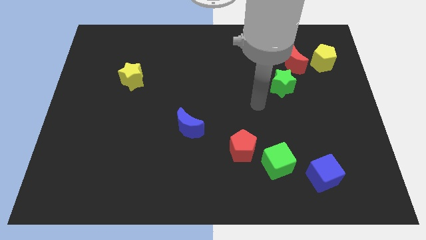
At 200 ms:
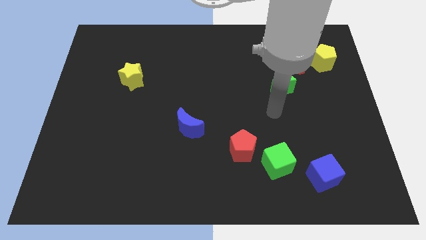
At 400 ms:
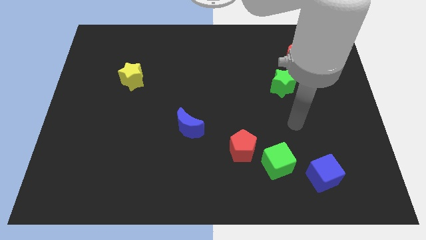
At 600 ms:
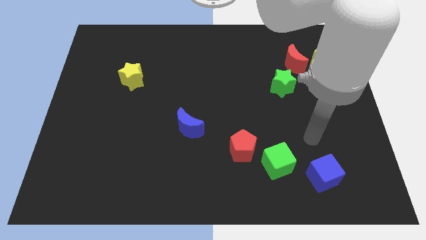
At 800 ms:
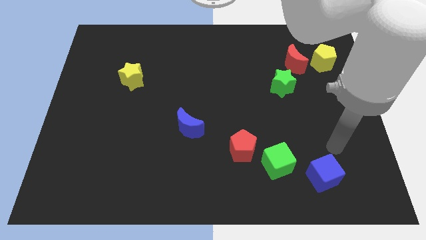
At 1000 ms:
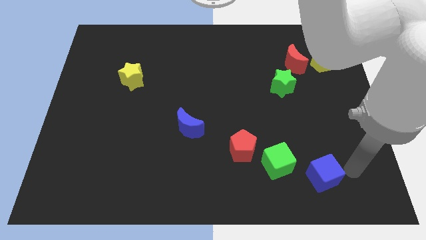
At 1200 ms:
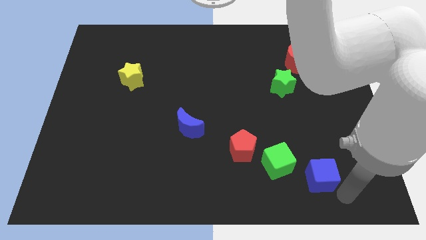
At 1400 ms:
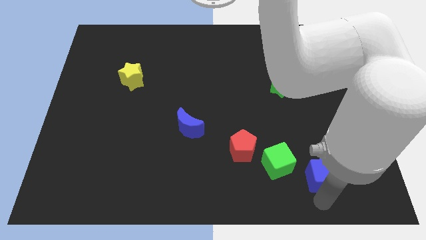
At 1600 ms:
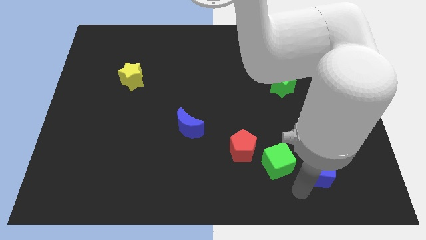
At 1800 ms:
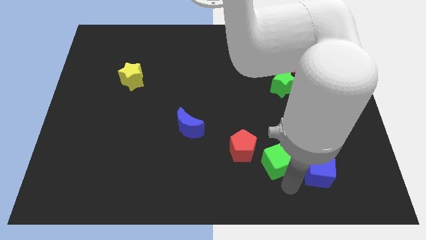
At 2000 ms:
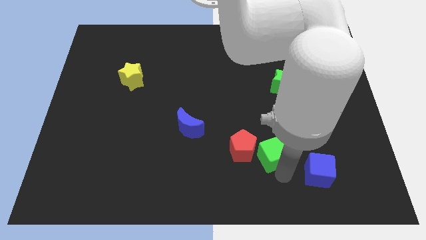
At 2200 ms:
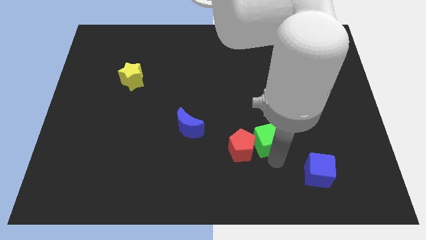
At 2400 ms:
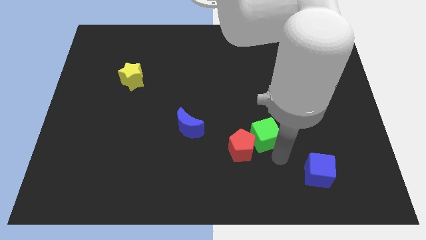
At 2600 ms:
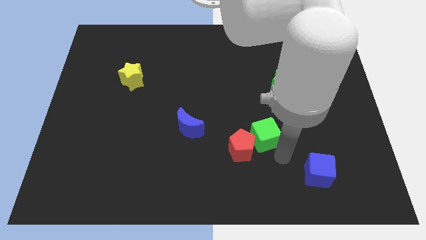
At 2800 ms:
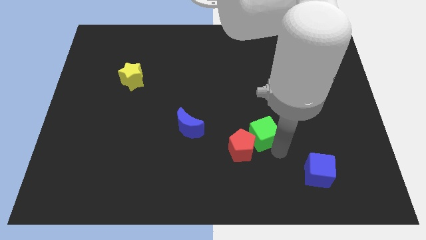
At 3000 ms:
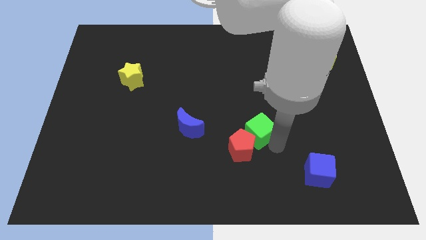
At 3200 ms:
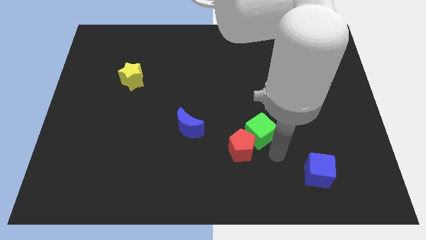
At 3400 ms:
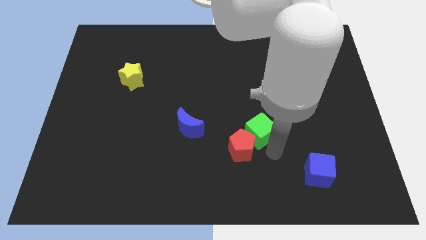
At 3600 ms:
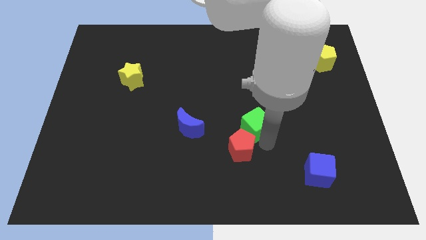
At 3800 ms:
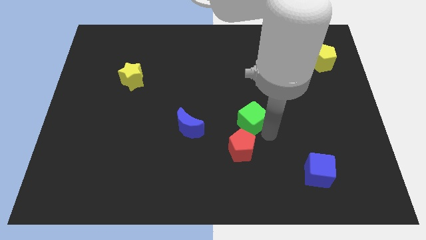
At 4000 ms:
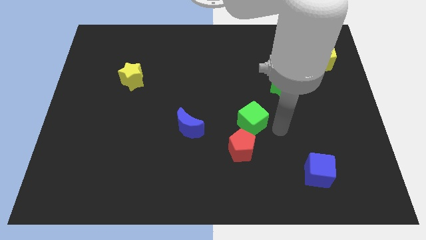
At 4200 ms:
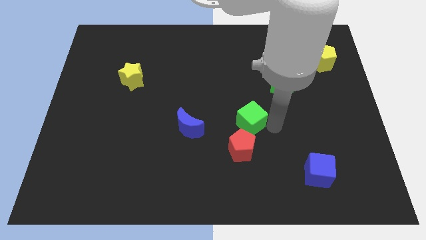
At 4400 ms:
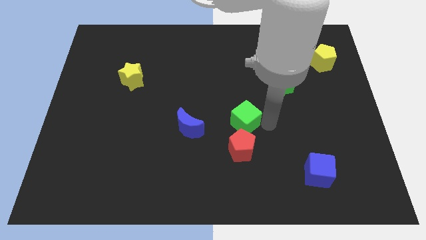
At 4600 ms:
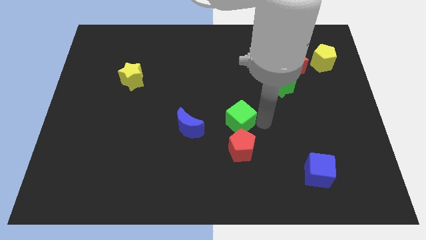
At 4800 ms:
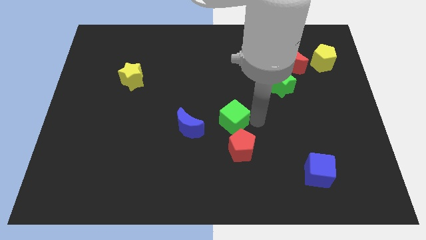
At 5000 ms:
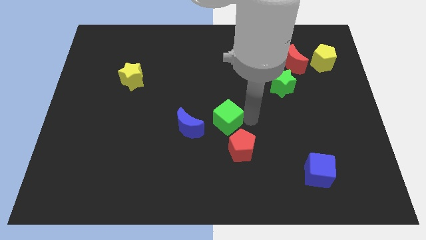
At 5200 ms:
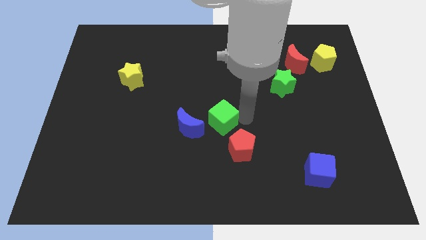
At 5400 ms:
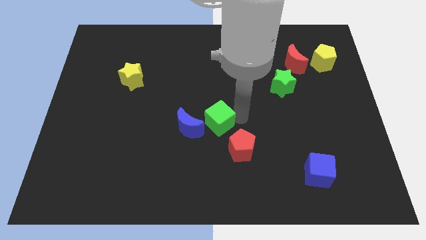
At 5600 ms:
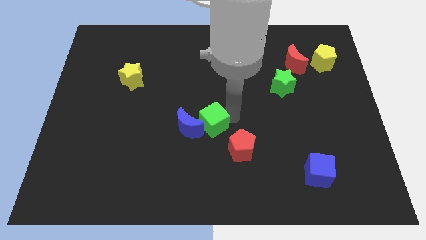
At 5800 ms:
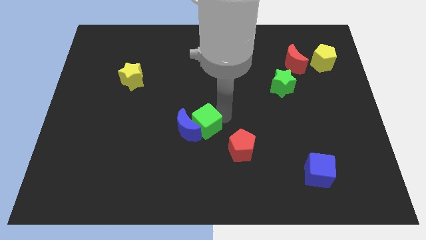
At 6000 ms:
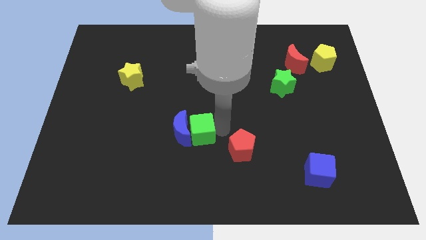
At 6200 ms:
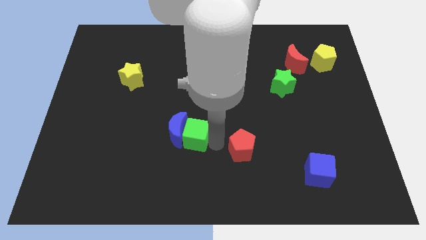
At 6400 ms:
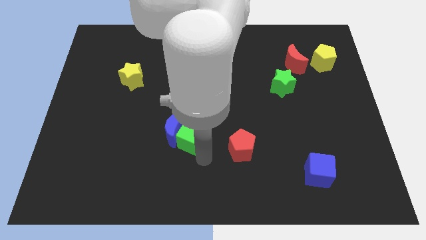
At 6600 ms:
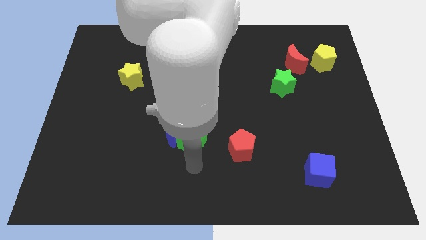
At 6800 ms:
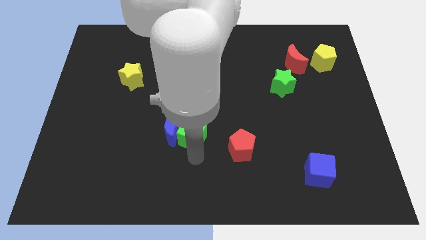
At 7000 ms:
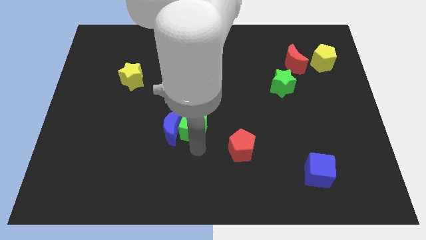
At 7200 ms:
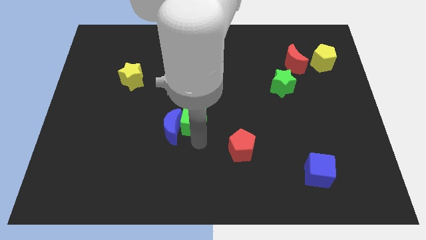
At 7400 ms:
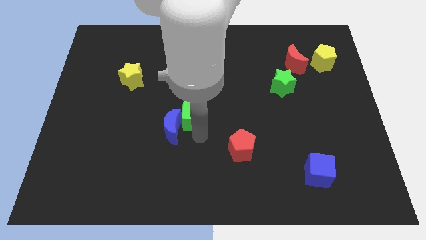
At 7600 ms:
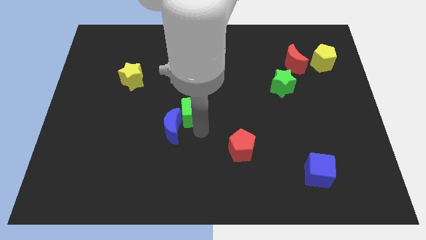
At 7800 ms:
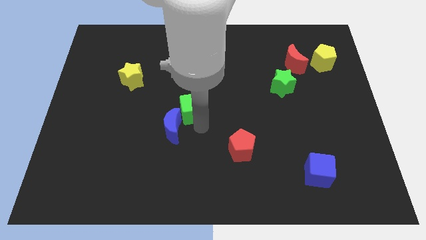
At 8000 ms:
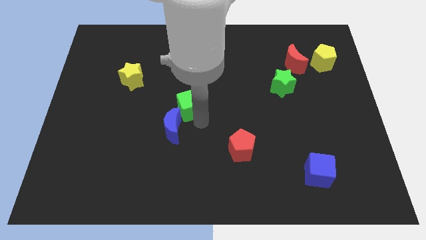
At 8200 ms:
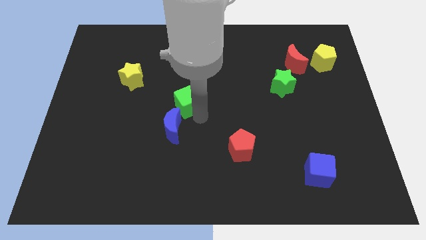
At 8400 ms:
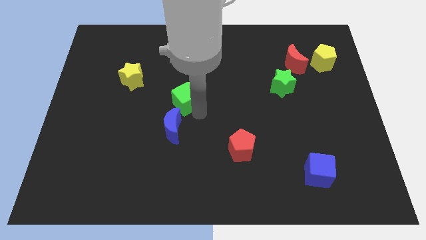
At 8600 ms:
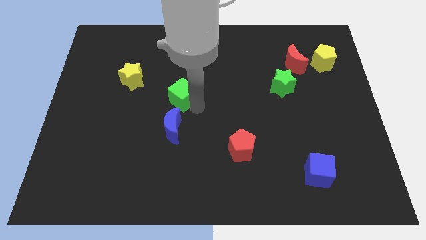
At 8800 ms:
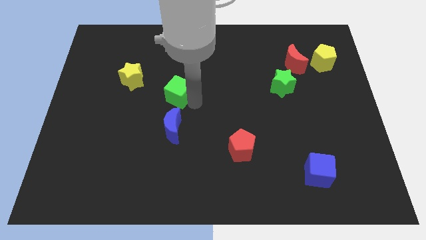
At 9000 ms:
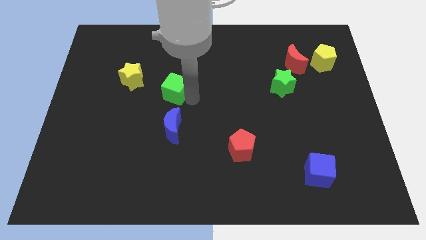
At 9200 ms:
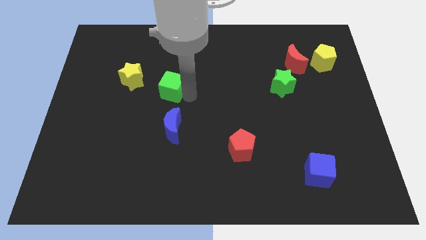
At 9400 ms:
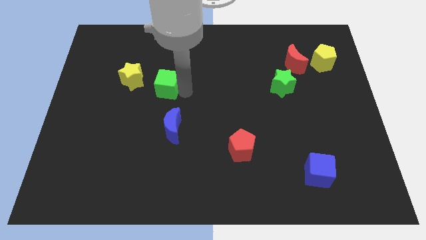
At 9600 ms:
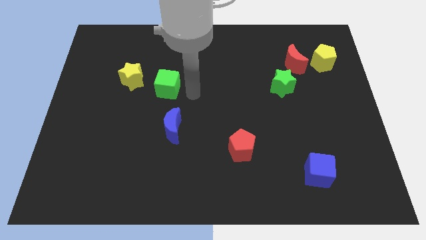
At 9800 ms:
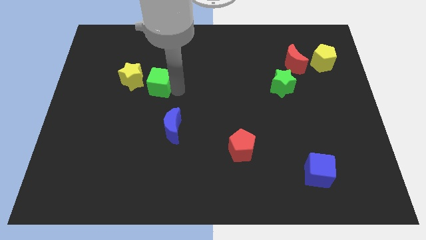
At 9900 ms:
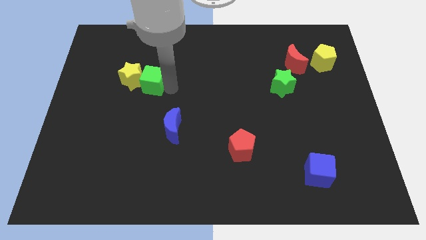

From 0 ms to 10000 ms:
slide the green cube towards the yellow star

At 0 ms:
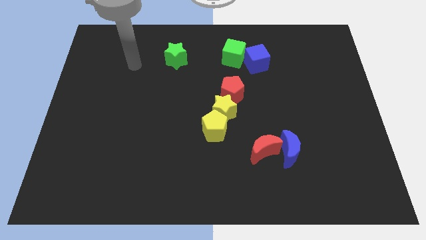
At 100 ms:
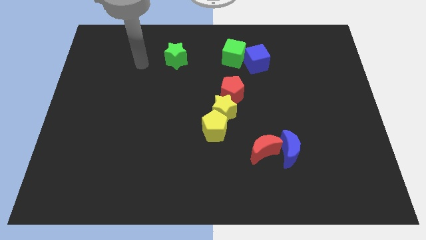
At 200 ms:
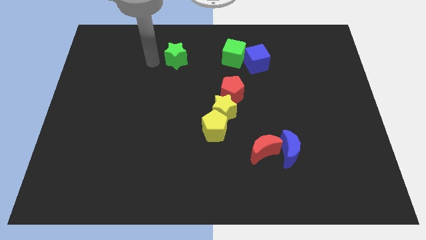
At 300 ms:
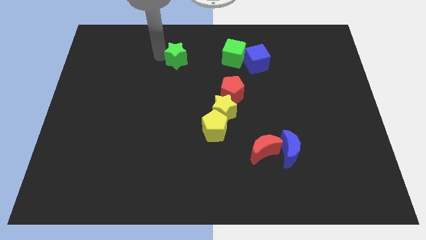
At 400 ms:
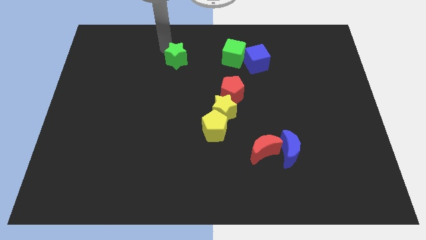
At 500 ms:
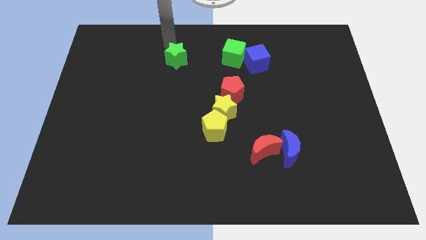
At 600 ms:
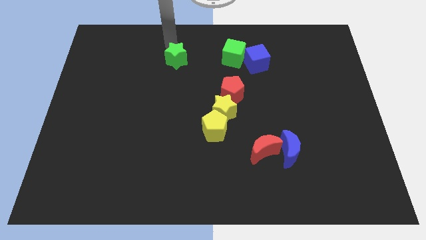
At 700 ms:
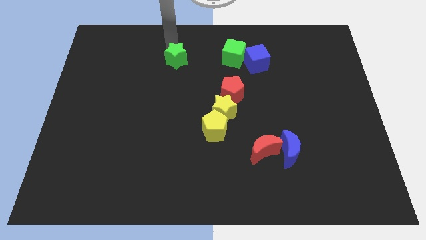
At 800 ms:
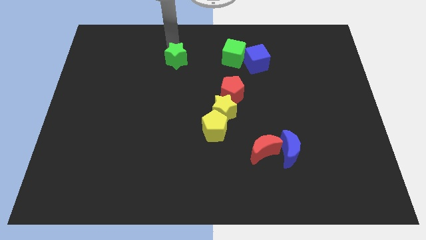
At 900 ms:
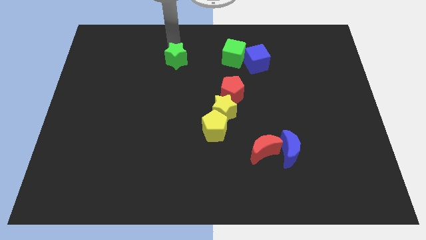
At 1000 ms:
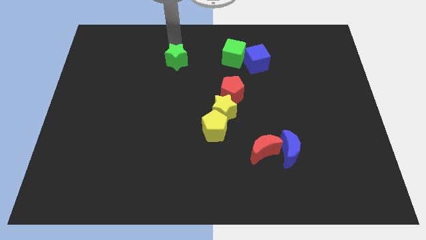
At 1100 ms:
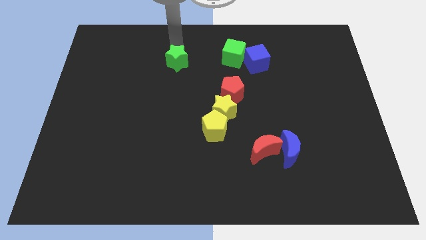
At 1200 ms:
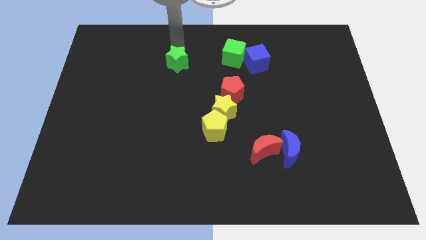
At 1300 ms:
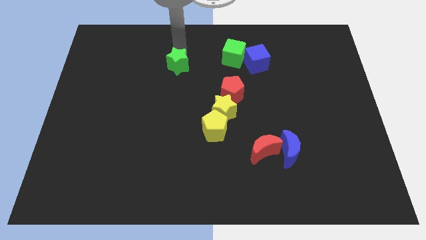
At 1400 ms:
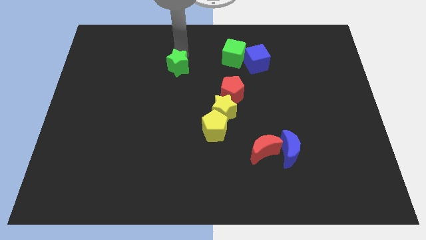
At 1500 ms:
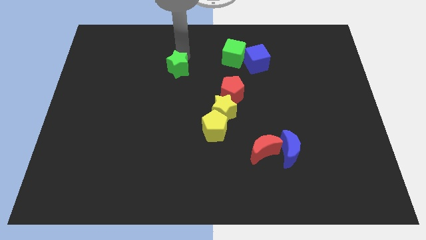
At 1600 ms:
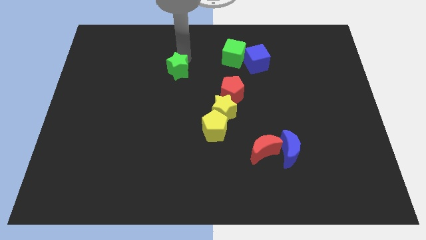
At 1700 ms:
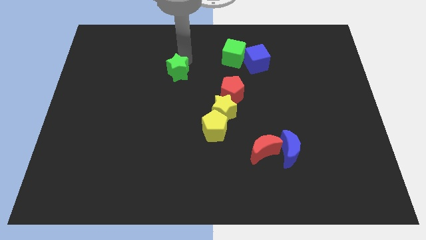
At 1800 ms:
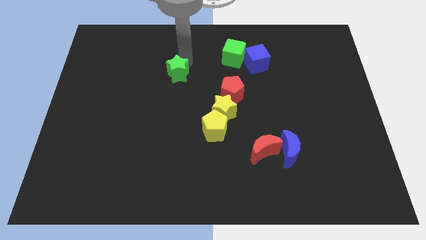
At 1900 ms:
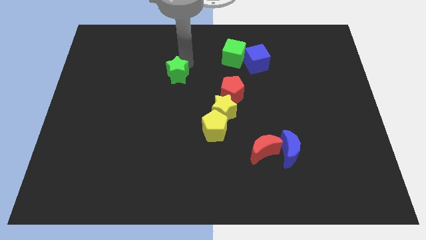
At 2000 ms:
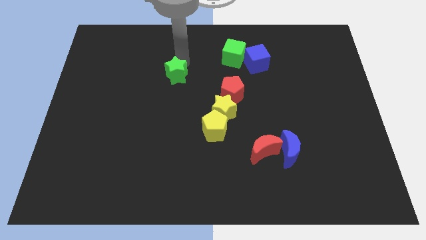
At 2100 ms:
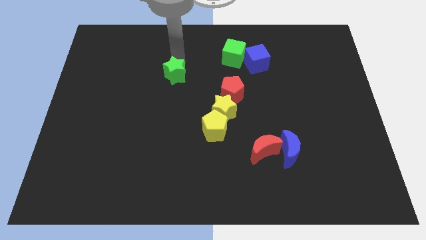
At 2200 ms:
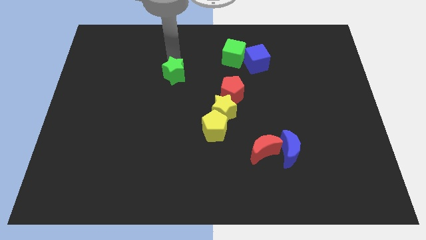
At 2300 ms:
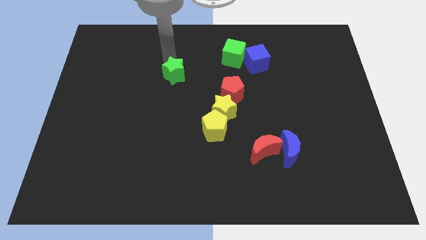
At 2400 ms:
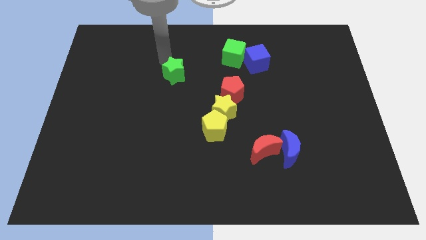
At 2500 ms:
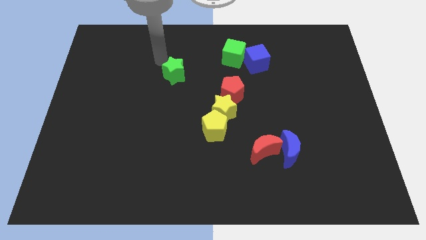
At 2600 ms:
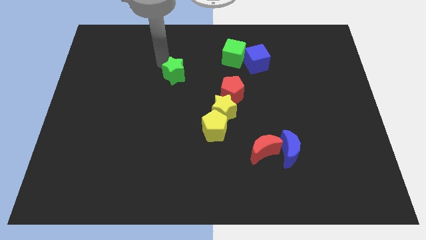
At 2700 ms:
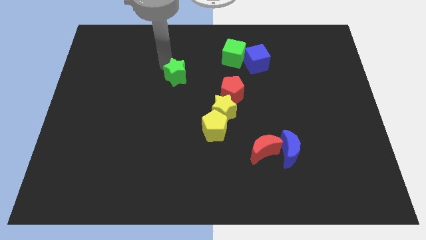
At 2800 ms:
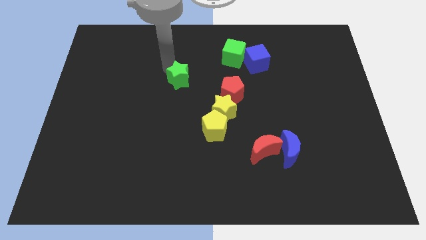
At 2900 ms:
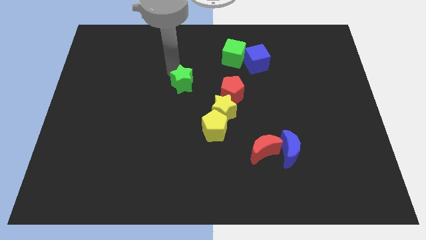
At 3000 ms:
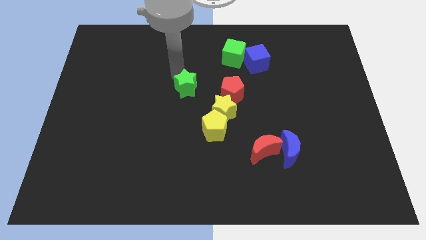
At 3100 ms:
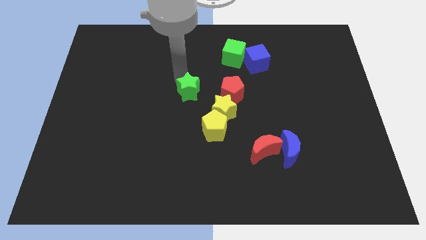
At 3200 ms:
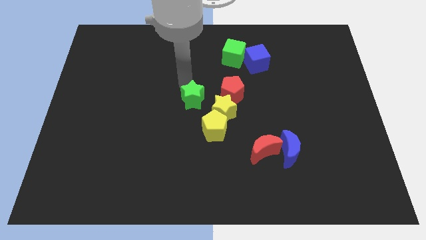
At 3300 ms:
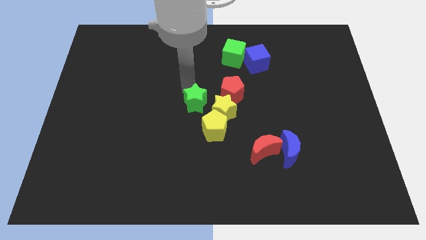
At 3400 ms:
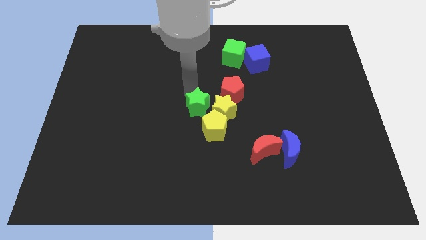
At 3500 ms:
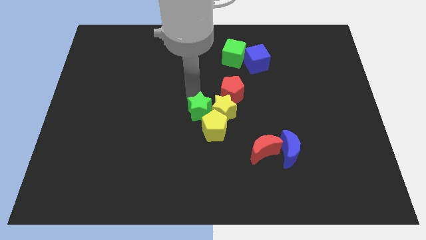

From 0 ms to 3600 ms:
put the green star next to the yellow pentagon
